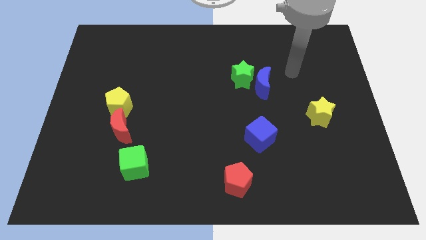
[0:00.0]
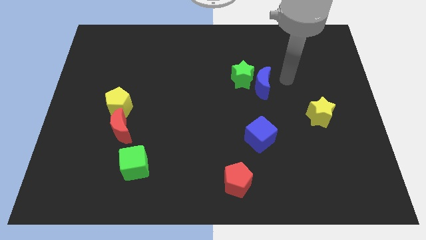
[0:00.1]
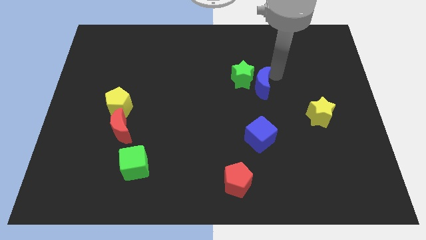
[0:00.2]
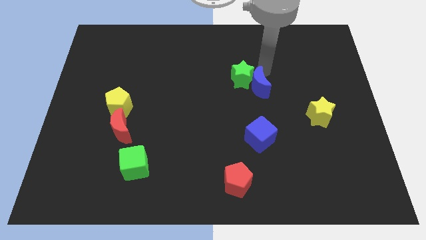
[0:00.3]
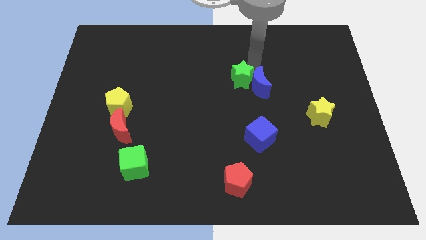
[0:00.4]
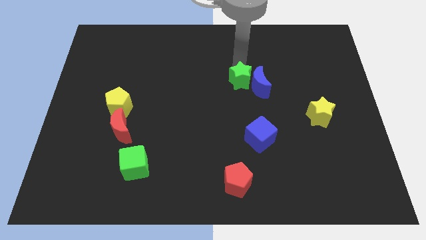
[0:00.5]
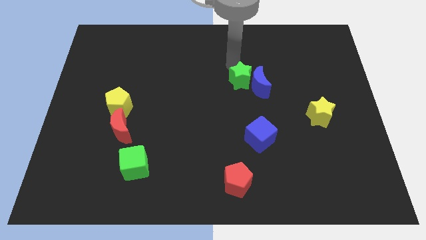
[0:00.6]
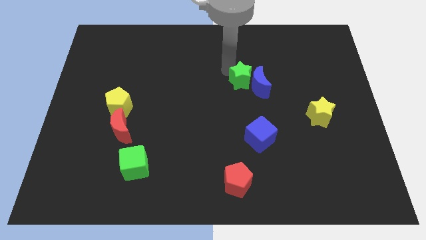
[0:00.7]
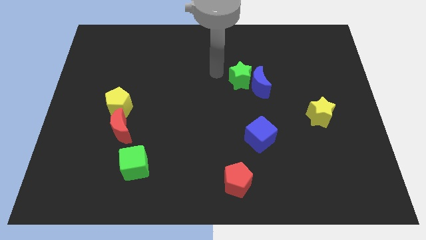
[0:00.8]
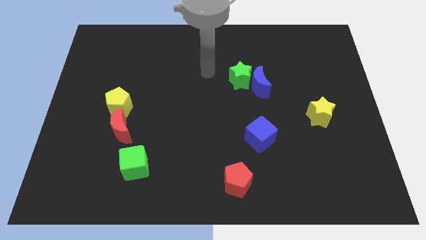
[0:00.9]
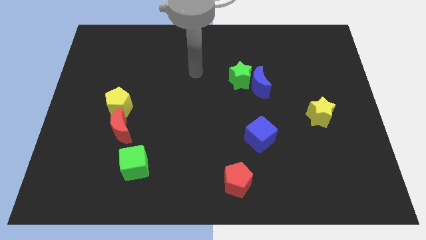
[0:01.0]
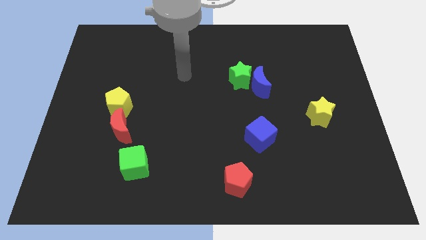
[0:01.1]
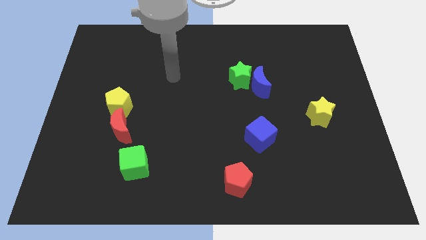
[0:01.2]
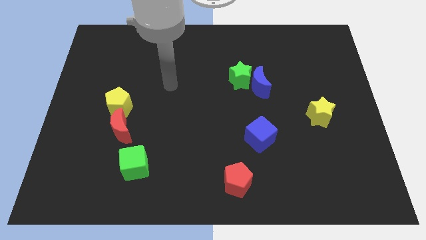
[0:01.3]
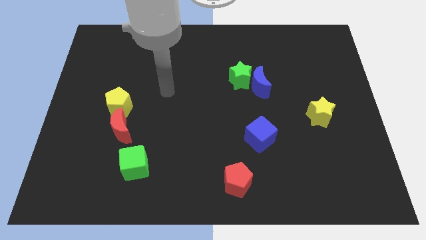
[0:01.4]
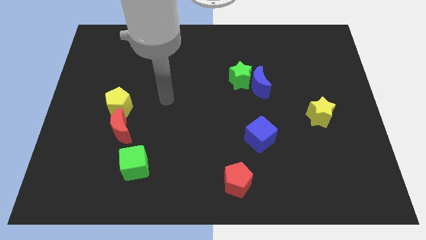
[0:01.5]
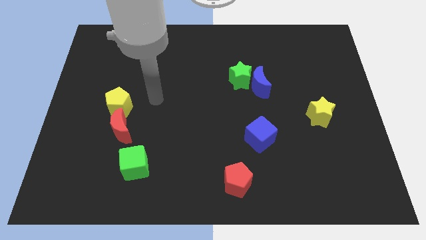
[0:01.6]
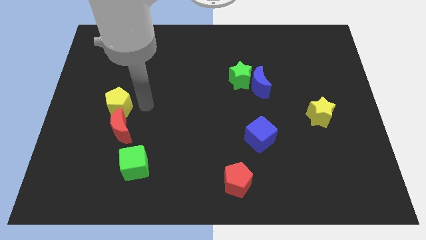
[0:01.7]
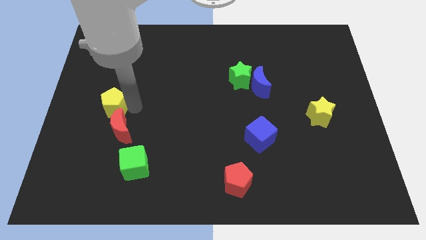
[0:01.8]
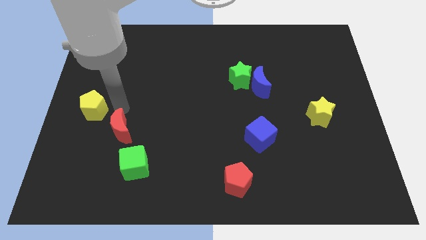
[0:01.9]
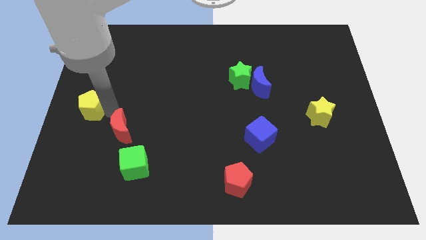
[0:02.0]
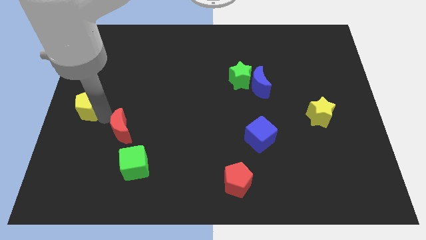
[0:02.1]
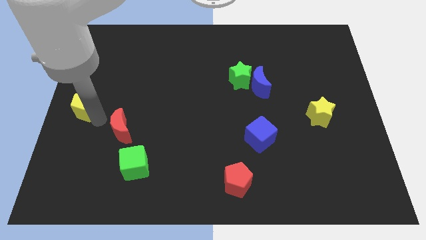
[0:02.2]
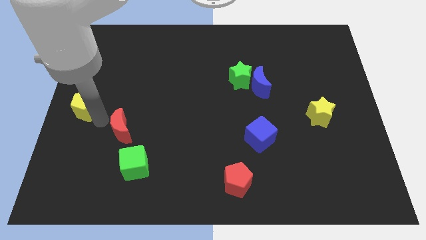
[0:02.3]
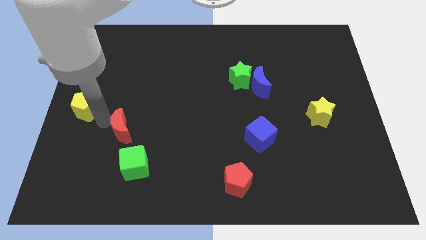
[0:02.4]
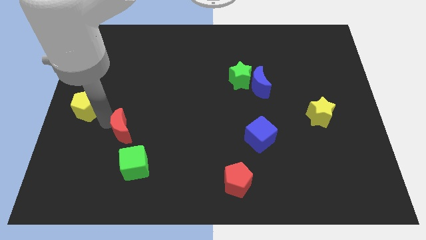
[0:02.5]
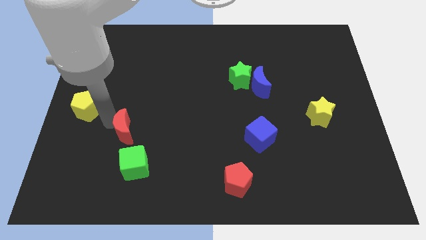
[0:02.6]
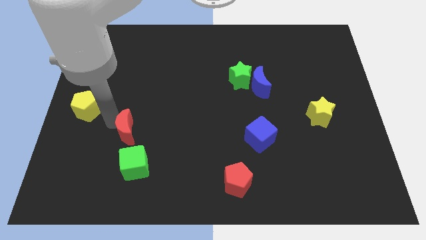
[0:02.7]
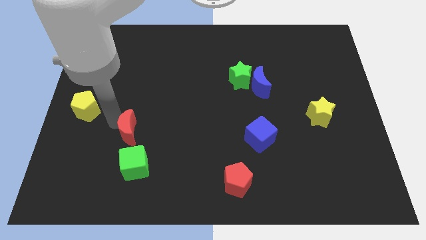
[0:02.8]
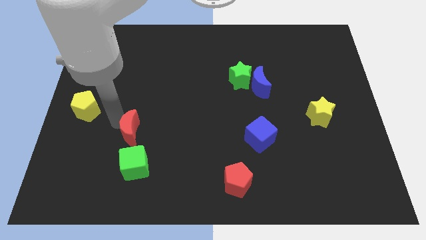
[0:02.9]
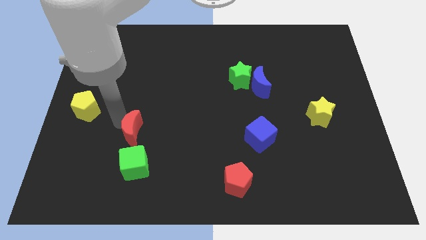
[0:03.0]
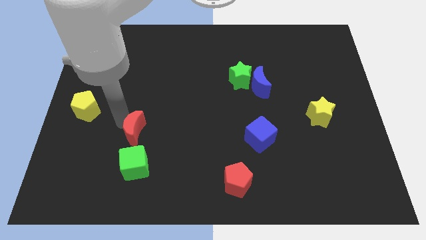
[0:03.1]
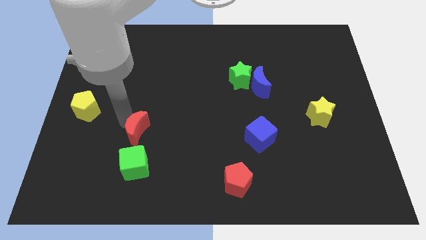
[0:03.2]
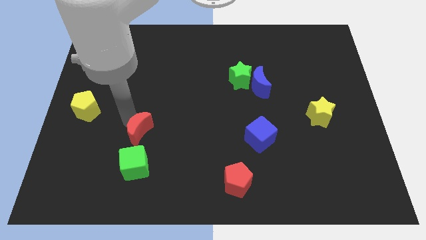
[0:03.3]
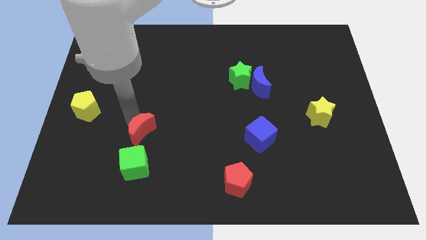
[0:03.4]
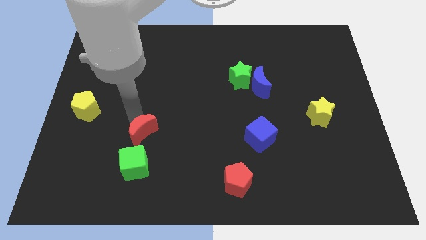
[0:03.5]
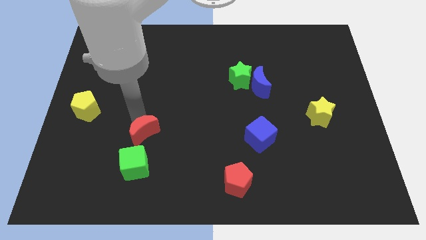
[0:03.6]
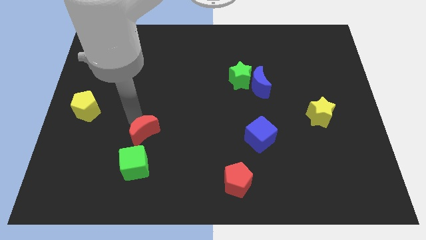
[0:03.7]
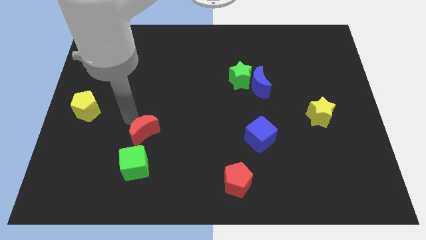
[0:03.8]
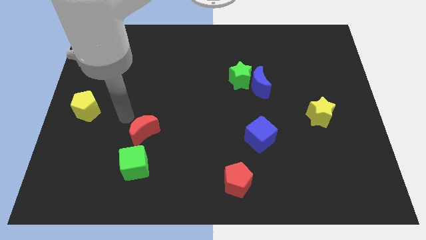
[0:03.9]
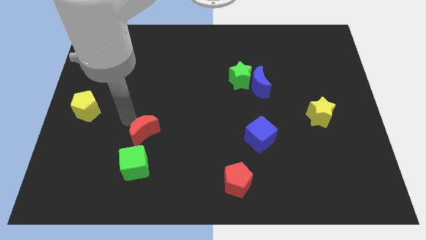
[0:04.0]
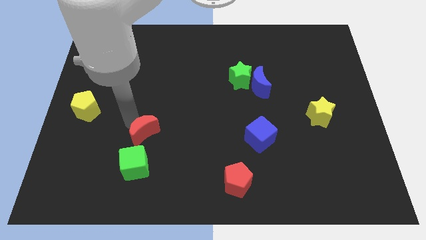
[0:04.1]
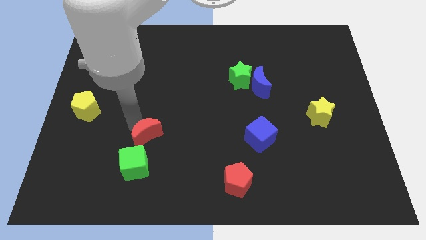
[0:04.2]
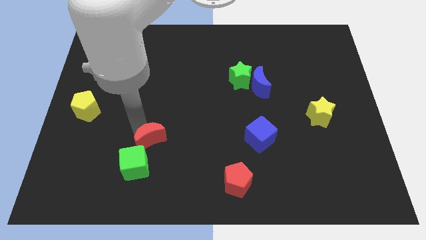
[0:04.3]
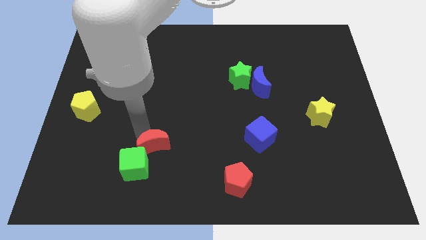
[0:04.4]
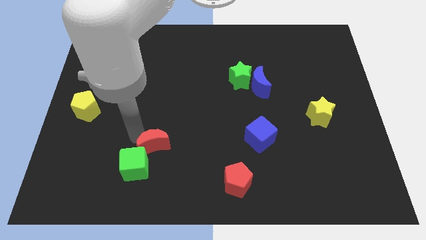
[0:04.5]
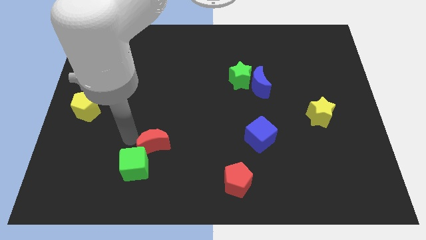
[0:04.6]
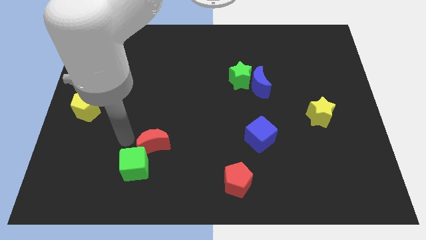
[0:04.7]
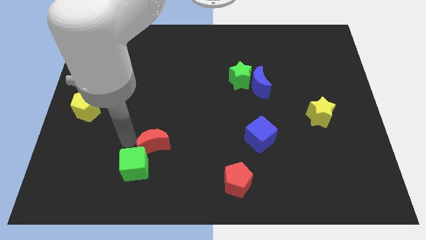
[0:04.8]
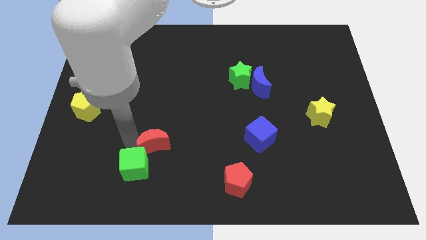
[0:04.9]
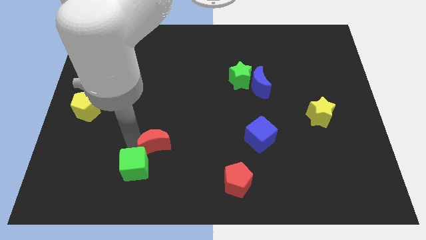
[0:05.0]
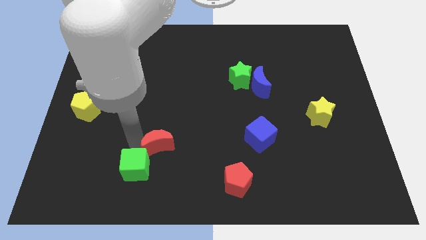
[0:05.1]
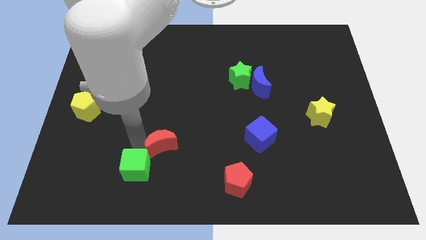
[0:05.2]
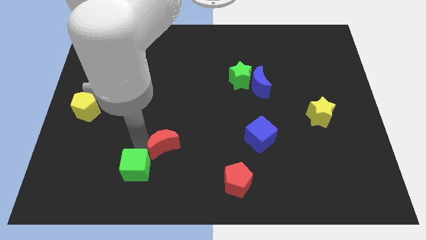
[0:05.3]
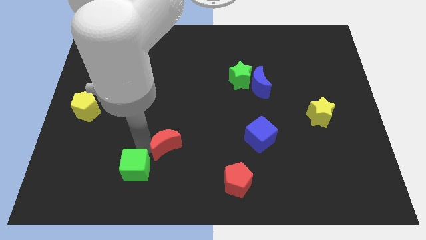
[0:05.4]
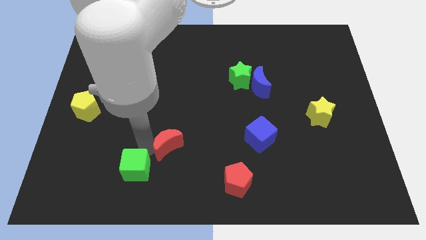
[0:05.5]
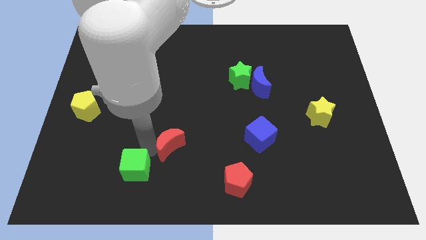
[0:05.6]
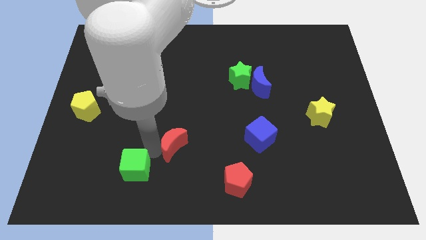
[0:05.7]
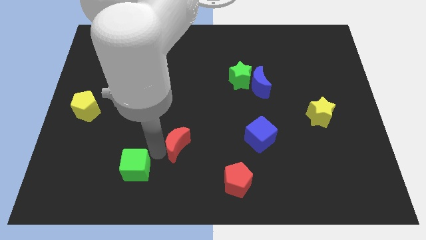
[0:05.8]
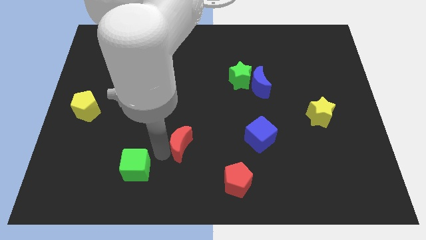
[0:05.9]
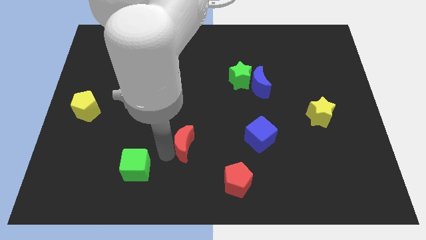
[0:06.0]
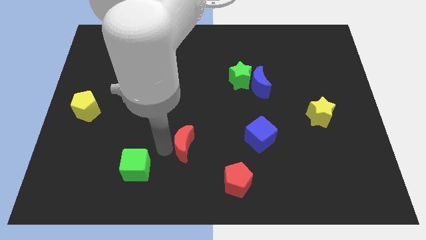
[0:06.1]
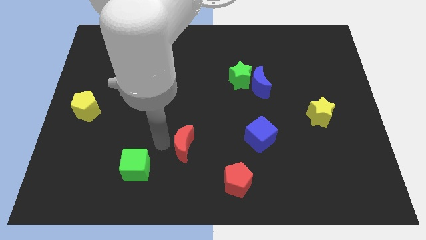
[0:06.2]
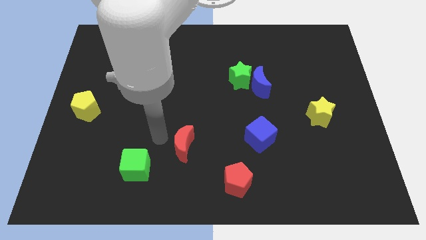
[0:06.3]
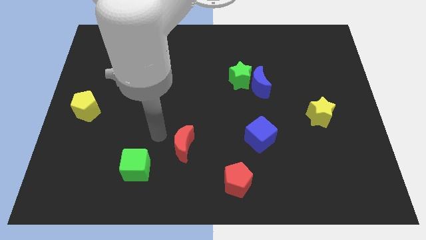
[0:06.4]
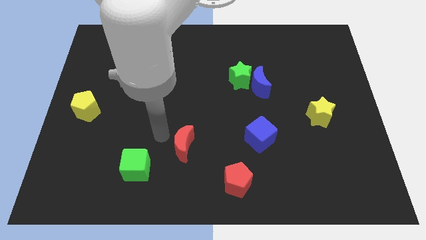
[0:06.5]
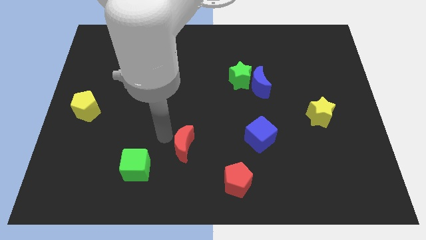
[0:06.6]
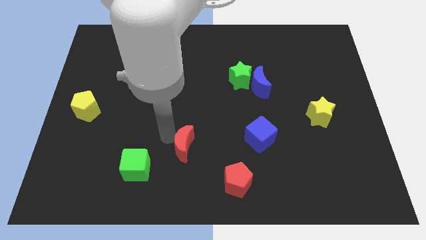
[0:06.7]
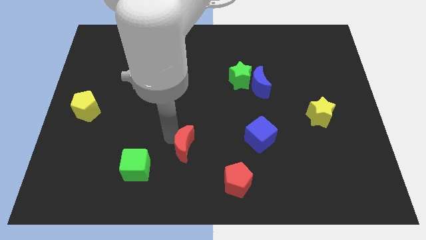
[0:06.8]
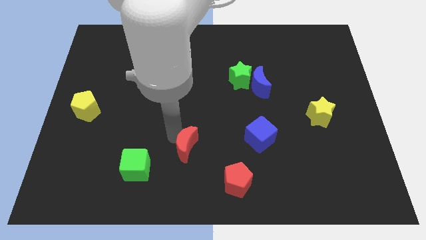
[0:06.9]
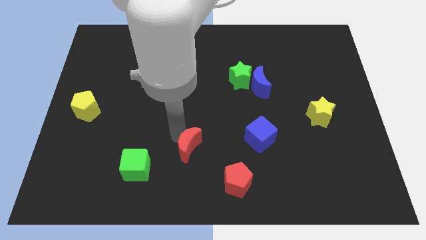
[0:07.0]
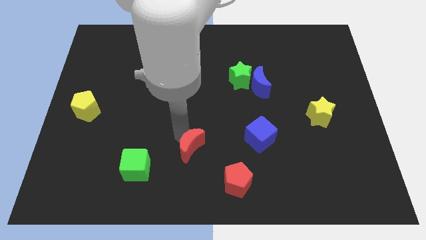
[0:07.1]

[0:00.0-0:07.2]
slide the red moon diagonally up and to the left of the red pentagon

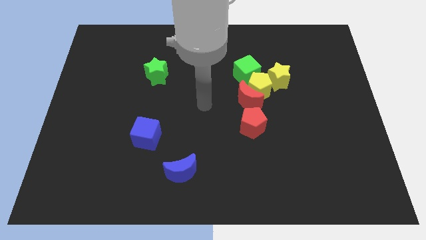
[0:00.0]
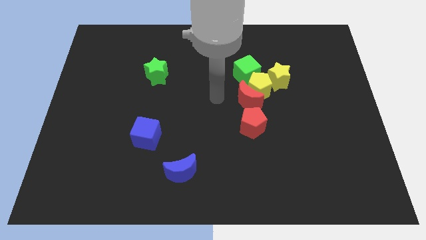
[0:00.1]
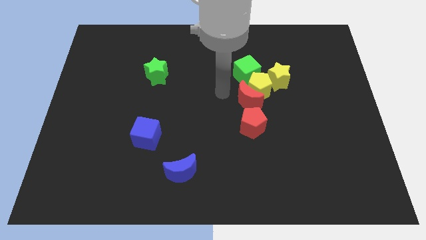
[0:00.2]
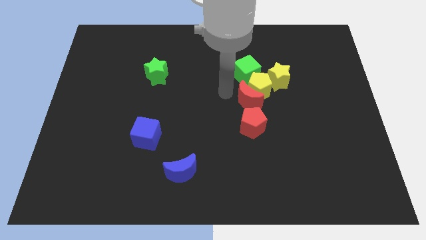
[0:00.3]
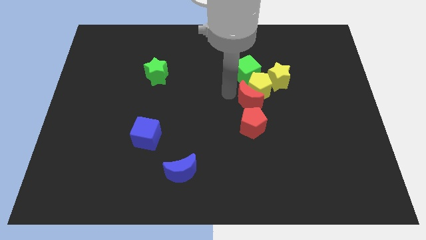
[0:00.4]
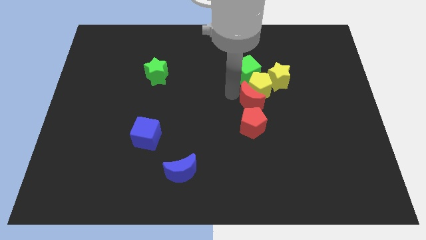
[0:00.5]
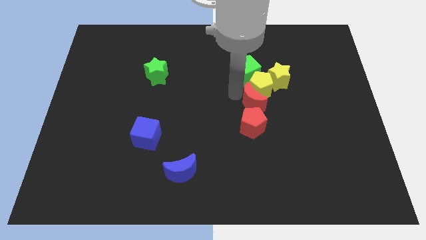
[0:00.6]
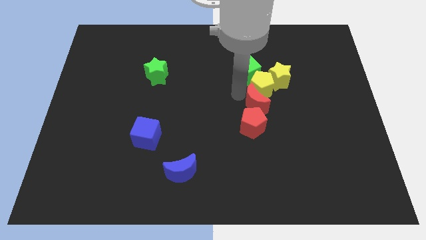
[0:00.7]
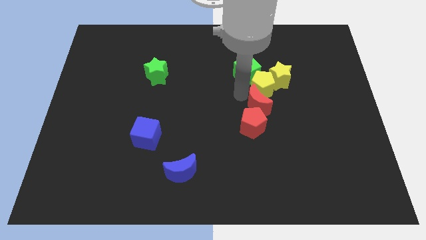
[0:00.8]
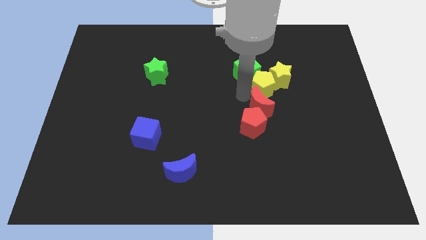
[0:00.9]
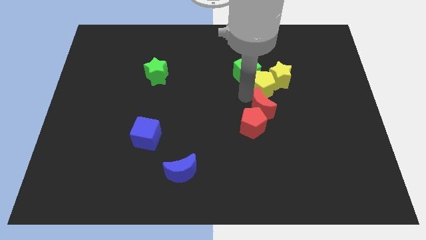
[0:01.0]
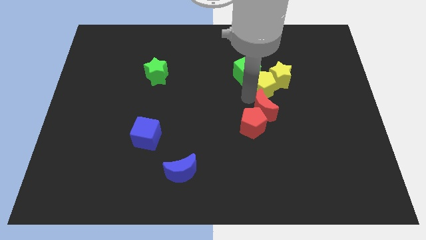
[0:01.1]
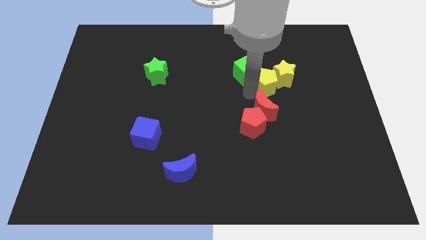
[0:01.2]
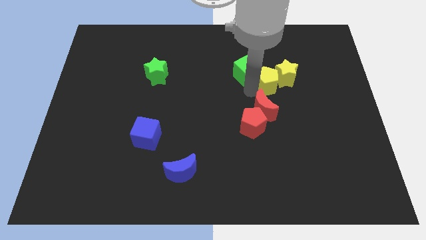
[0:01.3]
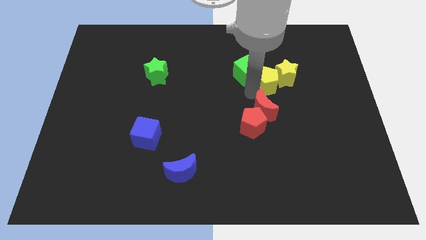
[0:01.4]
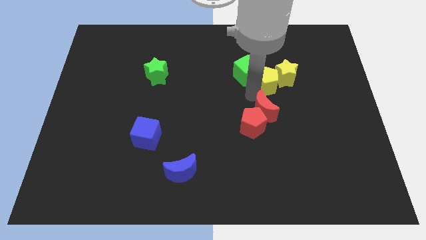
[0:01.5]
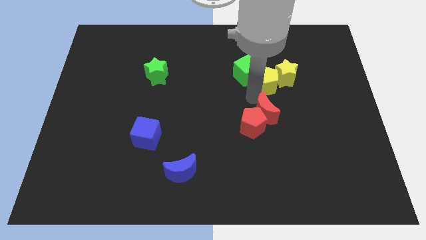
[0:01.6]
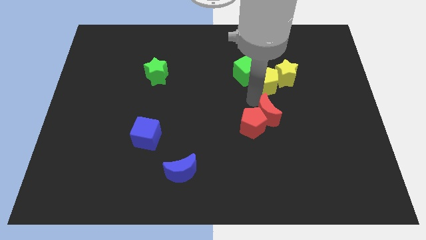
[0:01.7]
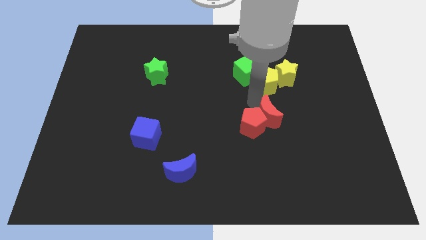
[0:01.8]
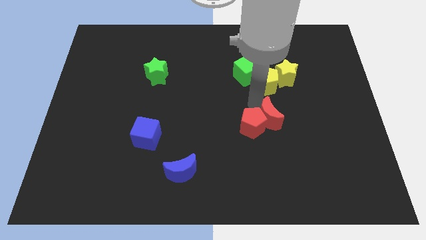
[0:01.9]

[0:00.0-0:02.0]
push the red moon diagonally down and to the right of the red pentagon
